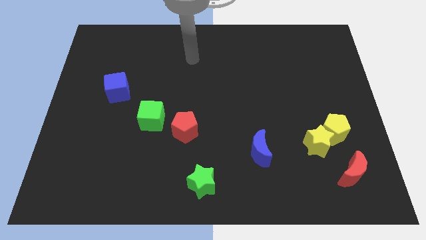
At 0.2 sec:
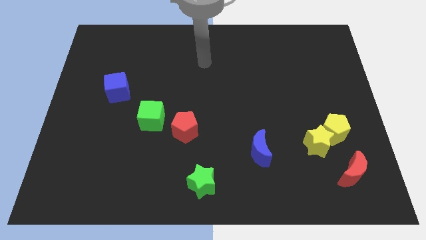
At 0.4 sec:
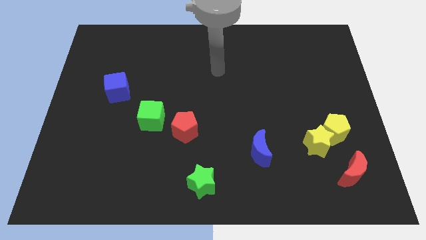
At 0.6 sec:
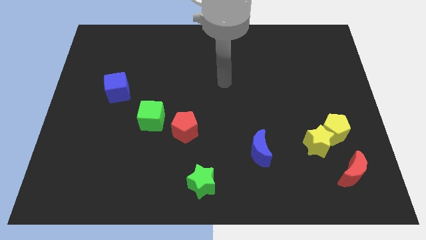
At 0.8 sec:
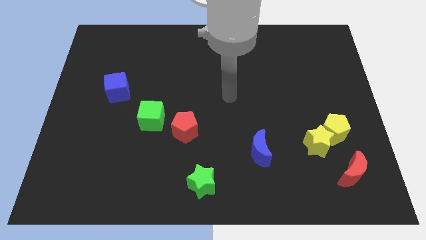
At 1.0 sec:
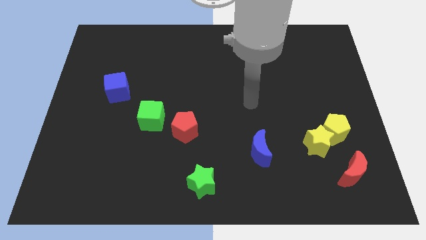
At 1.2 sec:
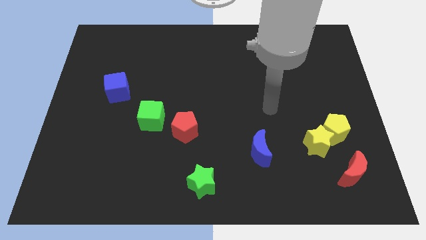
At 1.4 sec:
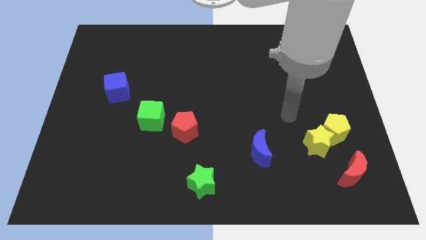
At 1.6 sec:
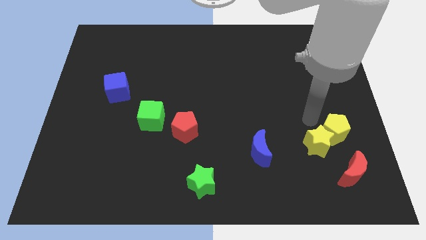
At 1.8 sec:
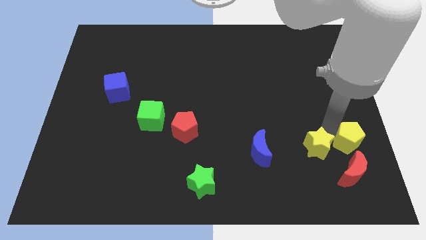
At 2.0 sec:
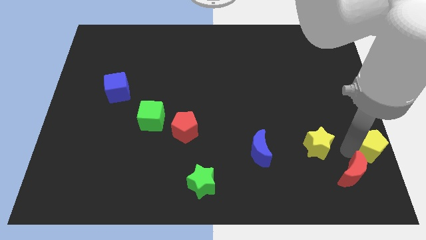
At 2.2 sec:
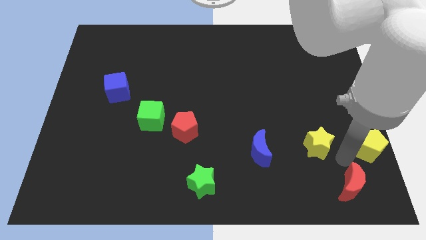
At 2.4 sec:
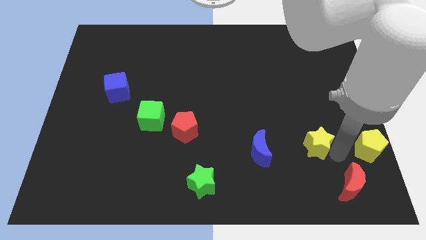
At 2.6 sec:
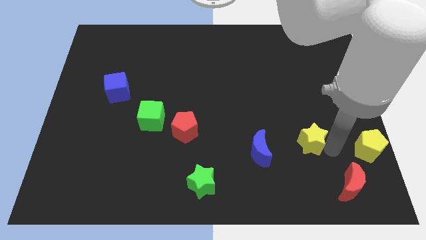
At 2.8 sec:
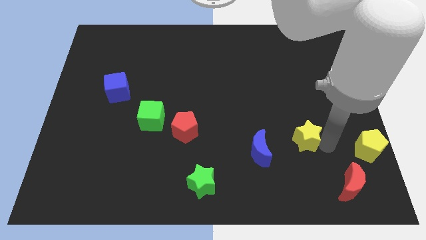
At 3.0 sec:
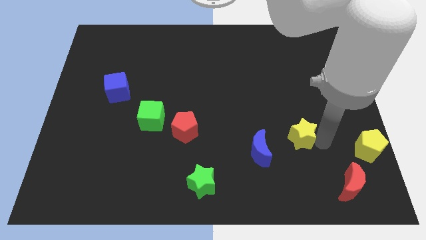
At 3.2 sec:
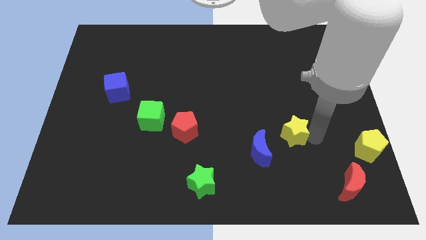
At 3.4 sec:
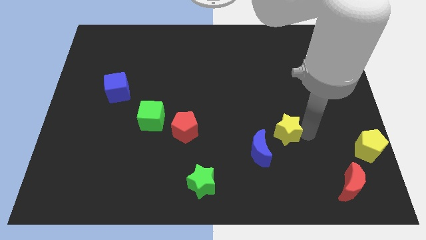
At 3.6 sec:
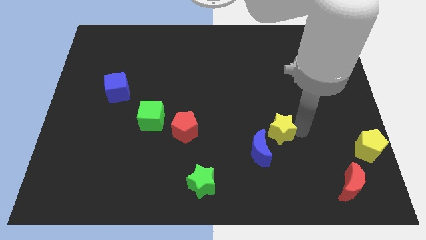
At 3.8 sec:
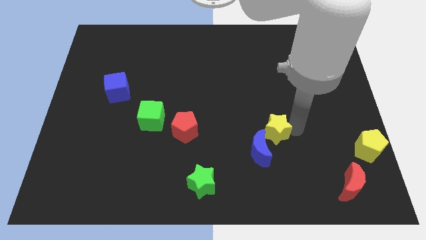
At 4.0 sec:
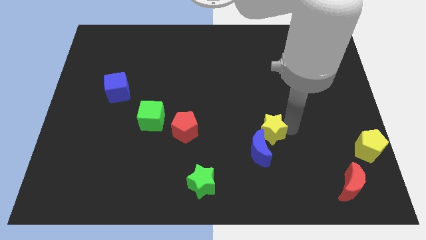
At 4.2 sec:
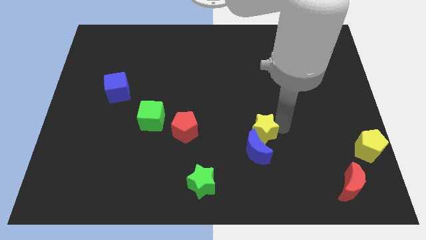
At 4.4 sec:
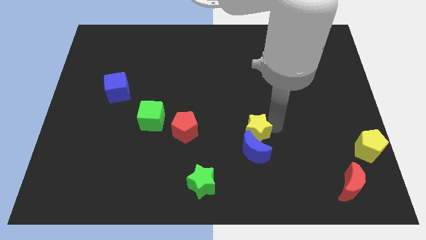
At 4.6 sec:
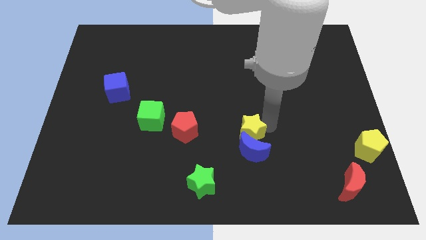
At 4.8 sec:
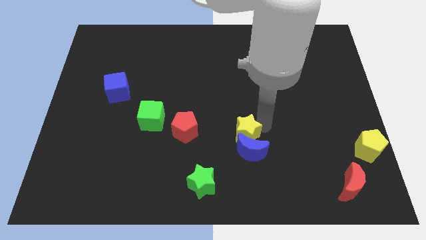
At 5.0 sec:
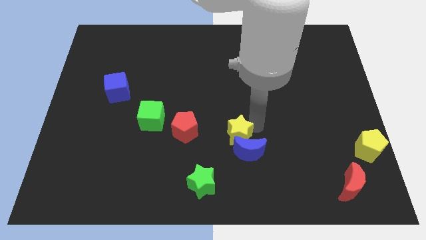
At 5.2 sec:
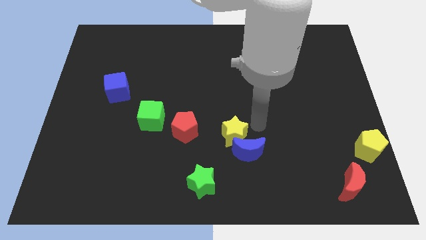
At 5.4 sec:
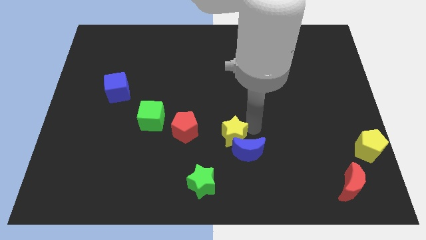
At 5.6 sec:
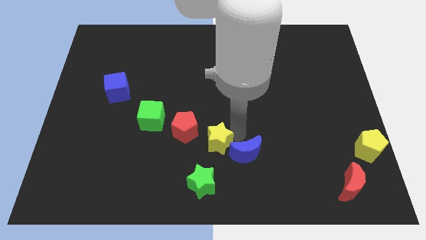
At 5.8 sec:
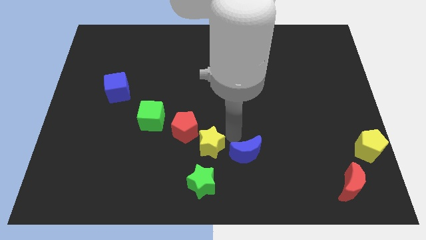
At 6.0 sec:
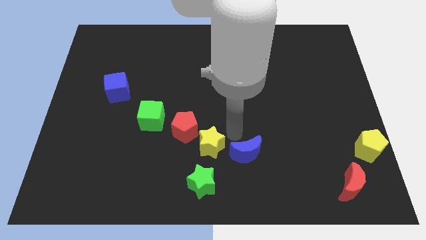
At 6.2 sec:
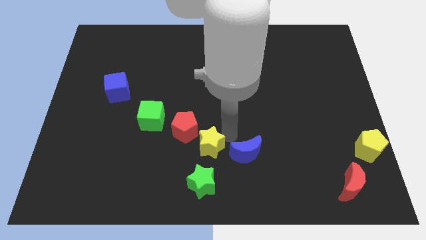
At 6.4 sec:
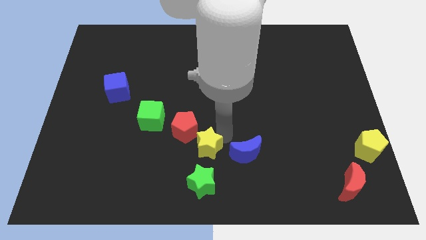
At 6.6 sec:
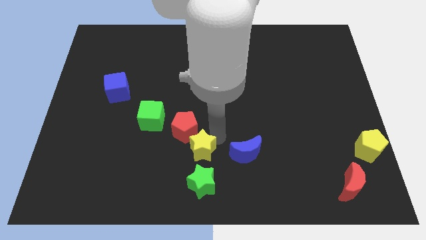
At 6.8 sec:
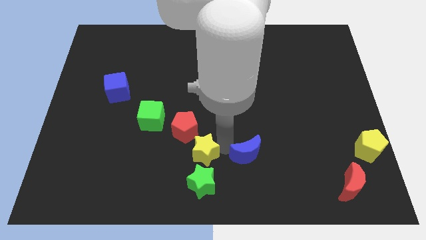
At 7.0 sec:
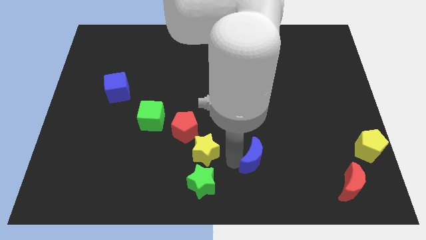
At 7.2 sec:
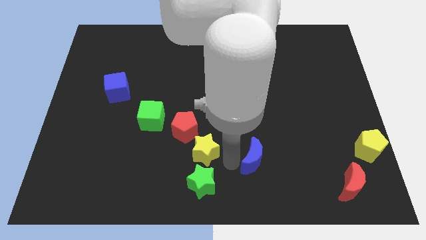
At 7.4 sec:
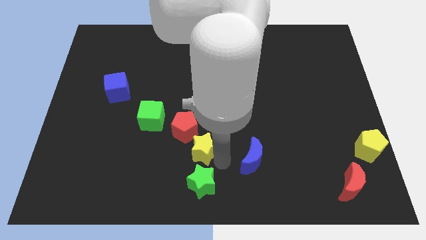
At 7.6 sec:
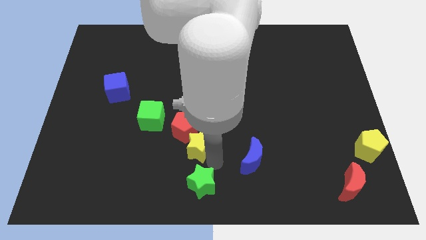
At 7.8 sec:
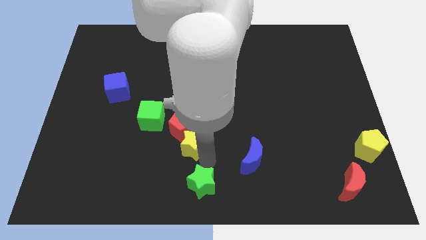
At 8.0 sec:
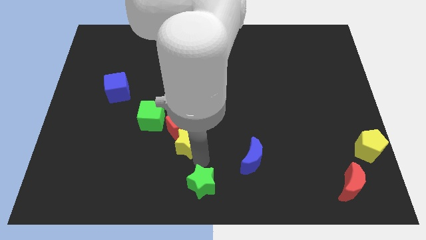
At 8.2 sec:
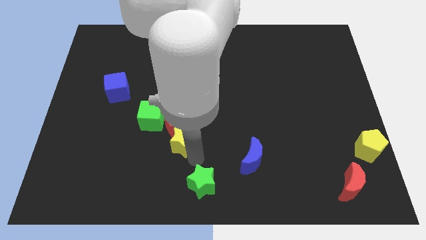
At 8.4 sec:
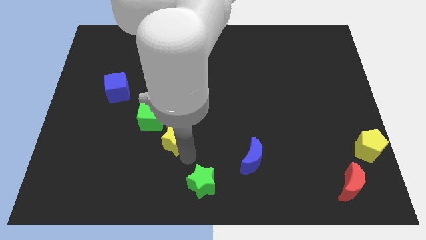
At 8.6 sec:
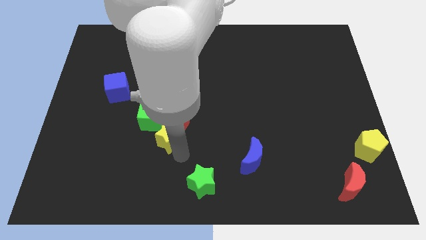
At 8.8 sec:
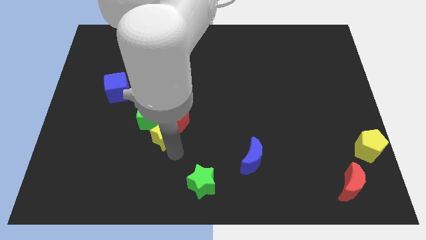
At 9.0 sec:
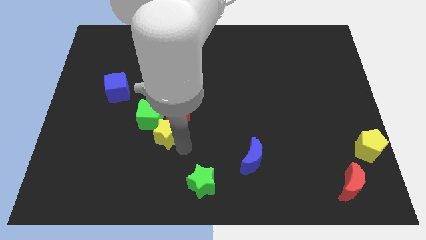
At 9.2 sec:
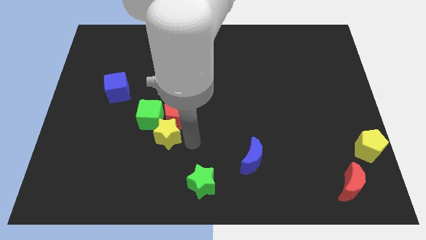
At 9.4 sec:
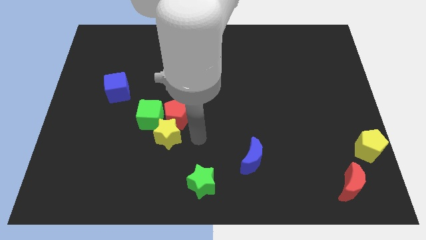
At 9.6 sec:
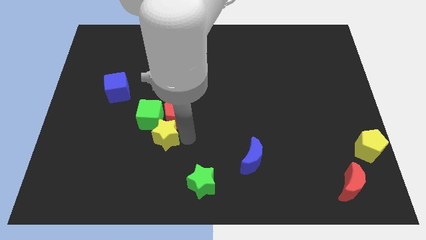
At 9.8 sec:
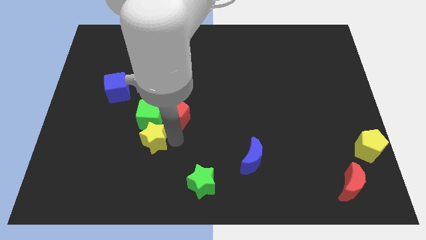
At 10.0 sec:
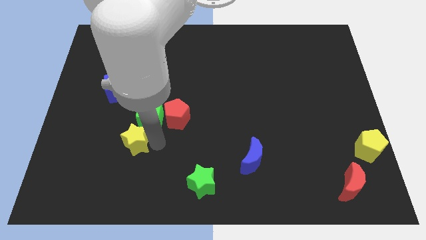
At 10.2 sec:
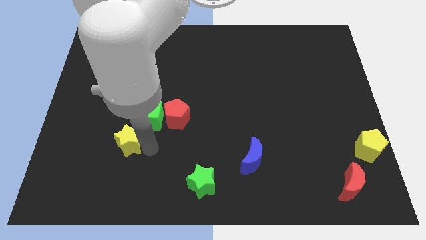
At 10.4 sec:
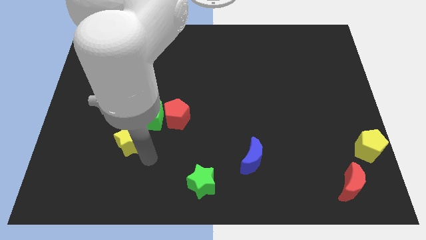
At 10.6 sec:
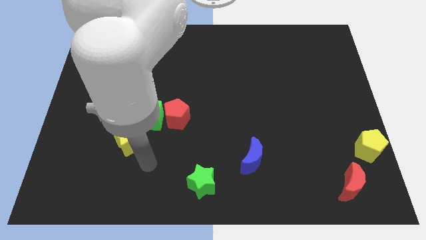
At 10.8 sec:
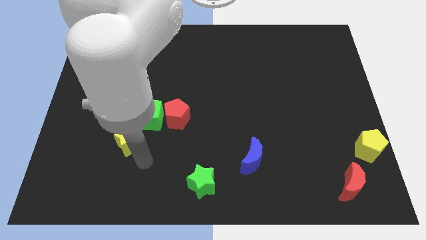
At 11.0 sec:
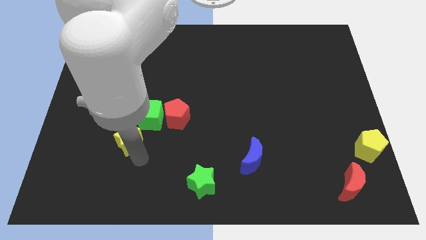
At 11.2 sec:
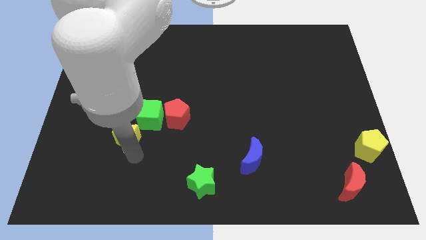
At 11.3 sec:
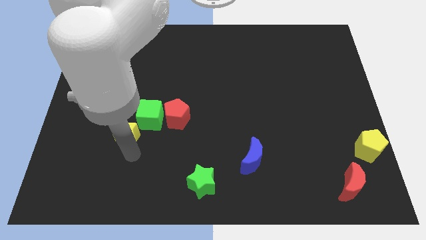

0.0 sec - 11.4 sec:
slide the yellow star to the bottom side of the blue cube

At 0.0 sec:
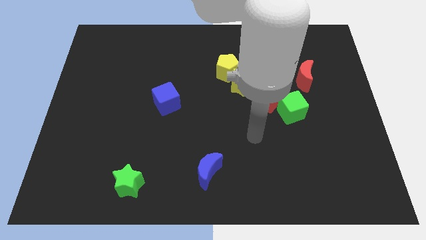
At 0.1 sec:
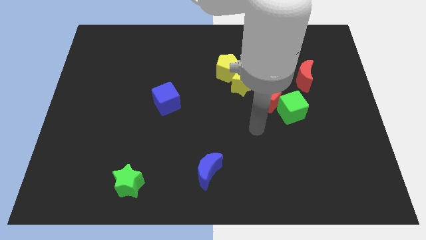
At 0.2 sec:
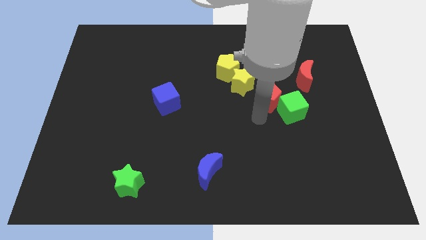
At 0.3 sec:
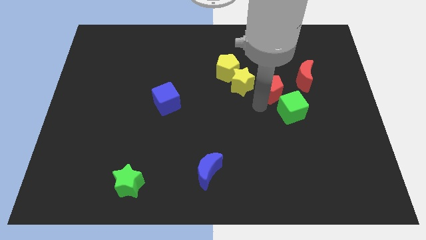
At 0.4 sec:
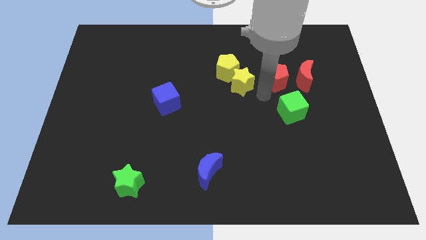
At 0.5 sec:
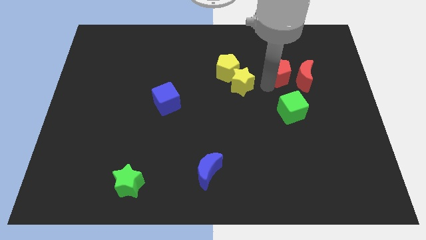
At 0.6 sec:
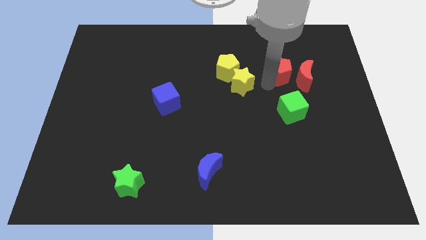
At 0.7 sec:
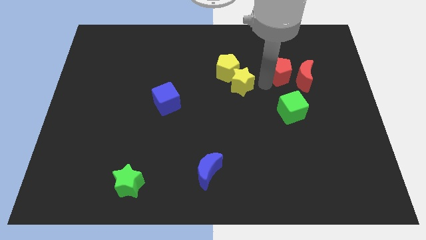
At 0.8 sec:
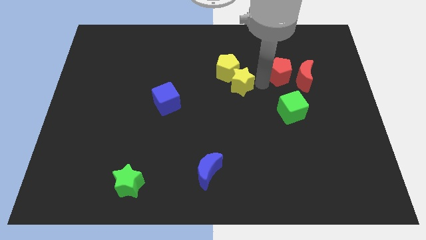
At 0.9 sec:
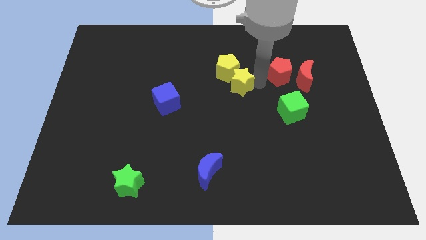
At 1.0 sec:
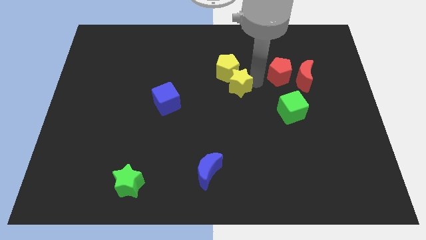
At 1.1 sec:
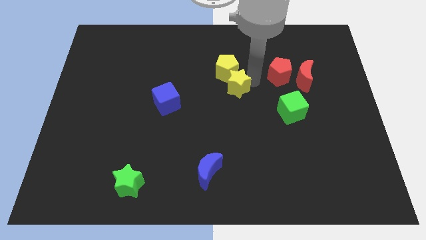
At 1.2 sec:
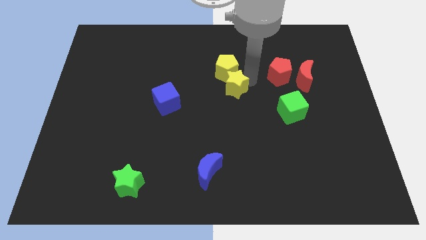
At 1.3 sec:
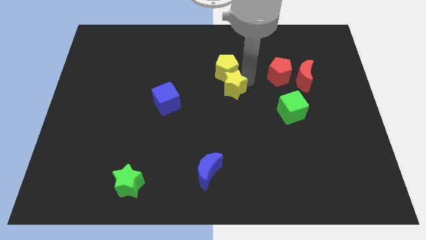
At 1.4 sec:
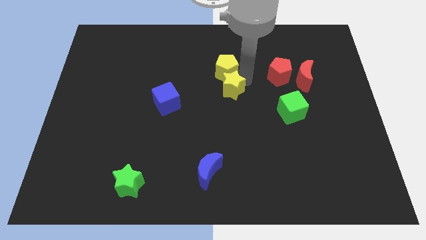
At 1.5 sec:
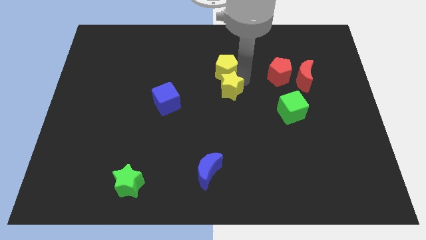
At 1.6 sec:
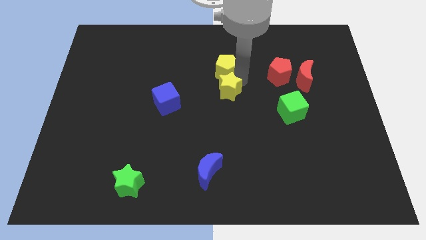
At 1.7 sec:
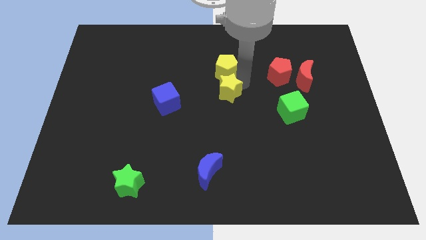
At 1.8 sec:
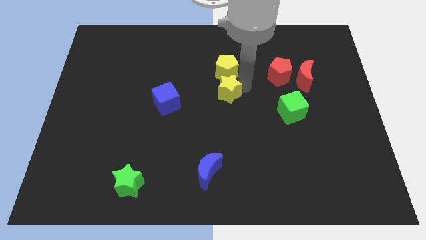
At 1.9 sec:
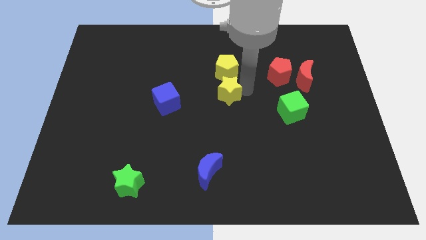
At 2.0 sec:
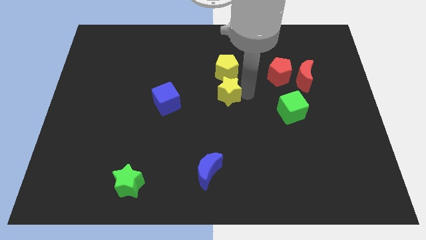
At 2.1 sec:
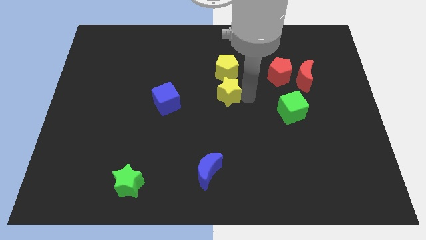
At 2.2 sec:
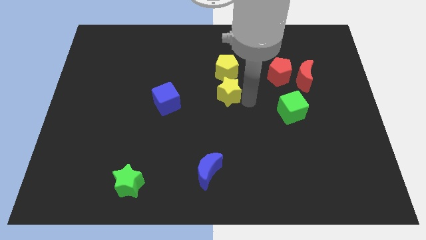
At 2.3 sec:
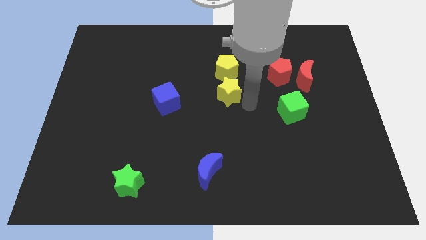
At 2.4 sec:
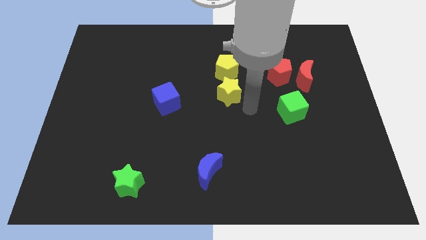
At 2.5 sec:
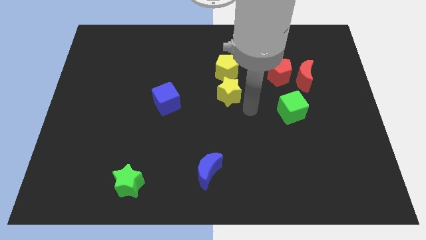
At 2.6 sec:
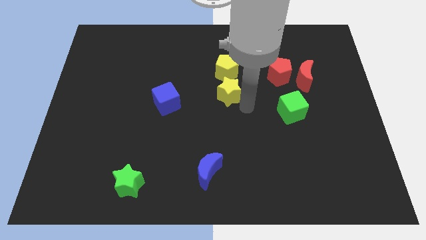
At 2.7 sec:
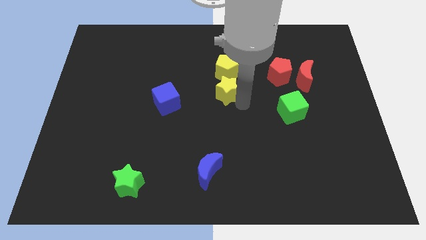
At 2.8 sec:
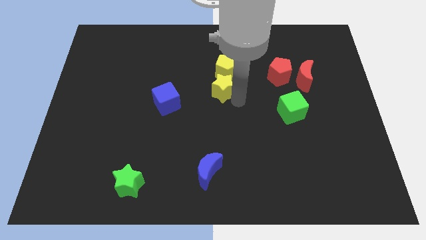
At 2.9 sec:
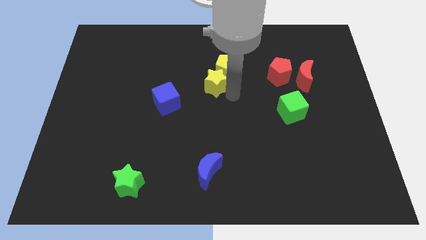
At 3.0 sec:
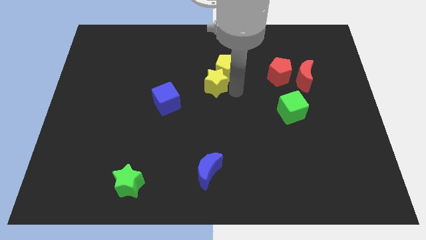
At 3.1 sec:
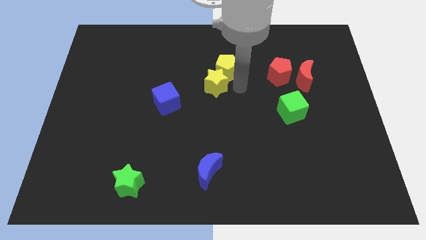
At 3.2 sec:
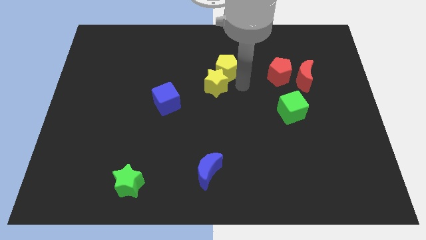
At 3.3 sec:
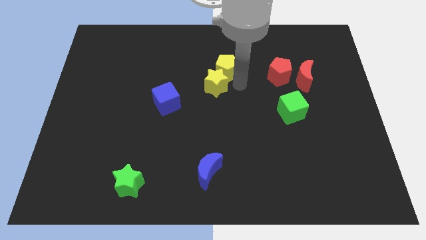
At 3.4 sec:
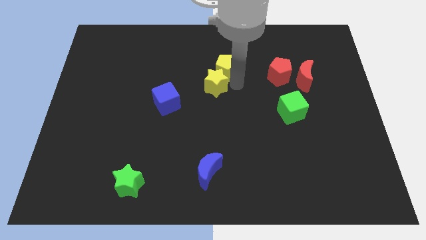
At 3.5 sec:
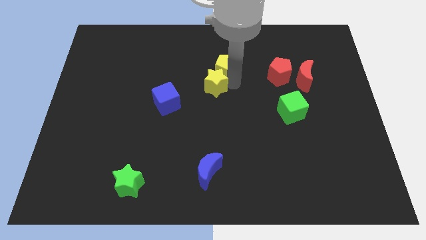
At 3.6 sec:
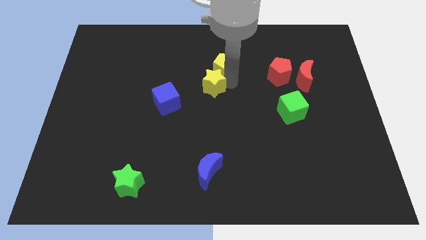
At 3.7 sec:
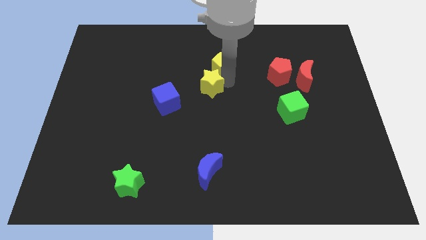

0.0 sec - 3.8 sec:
push the yellow star to the top right of the blue cube
